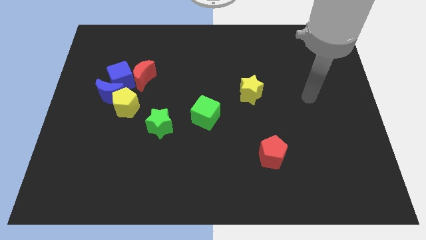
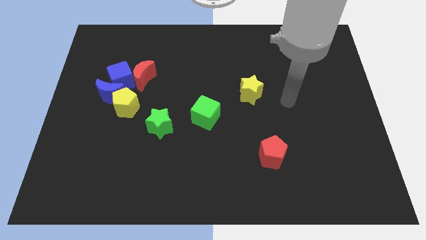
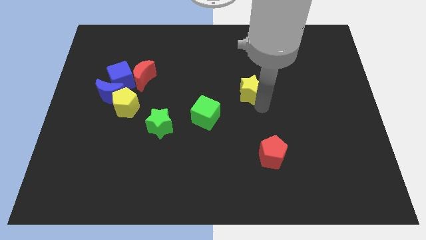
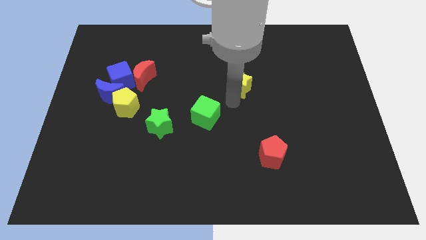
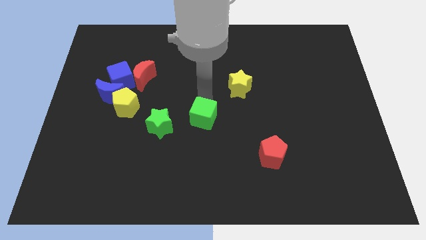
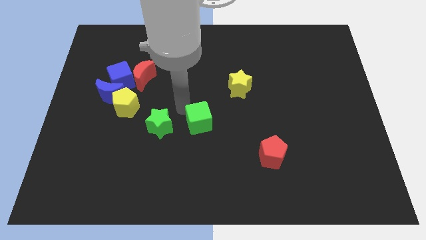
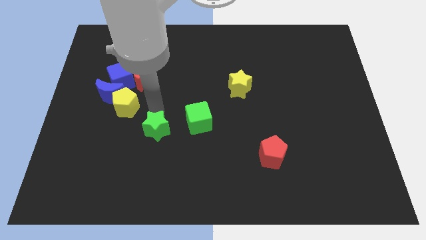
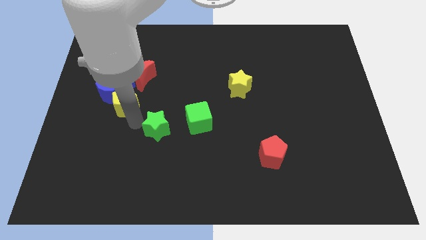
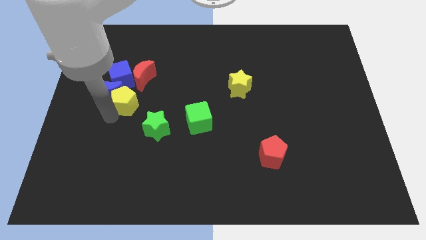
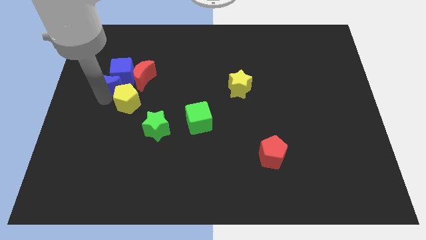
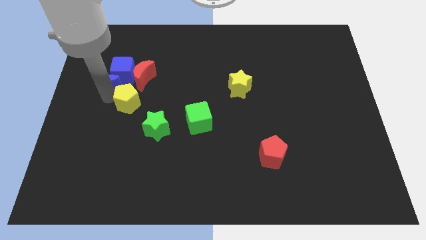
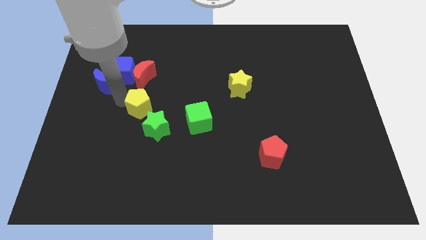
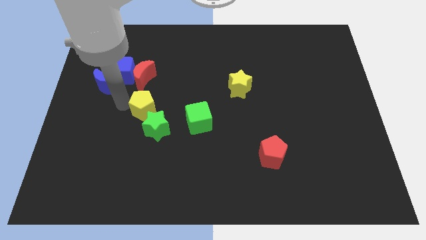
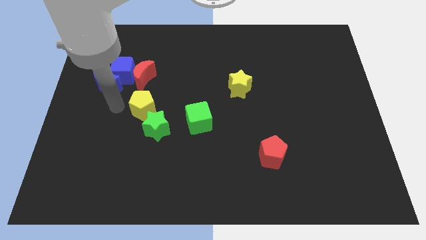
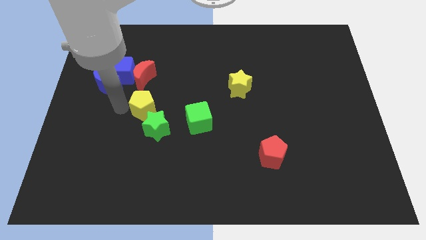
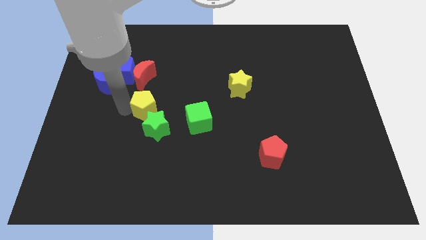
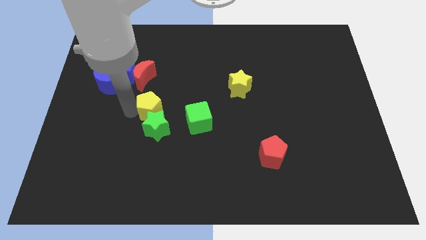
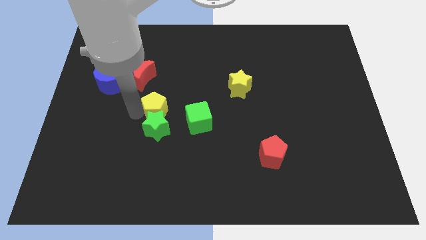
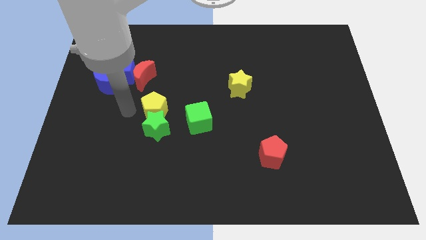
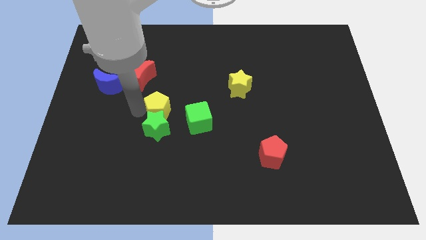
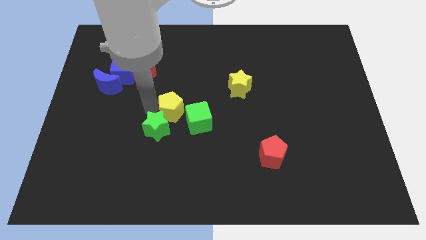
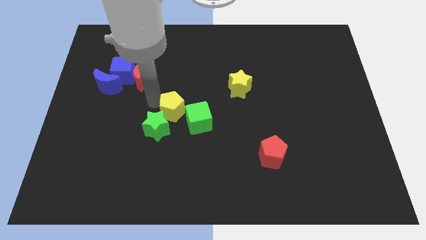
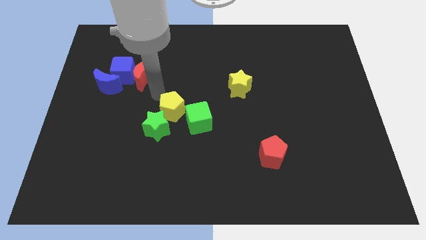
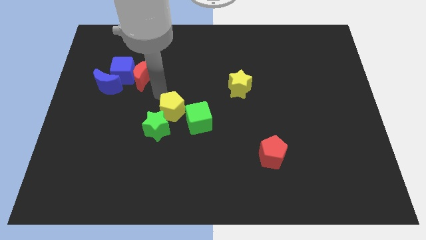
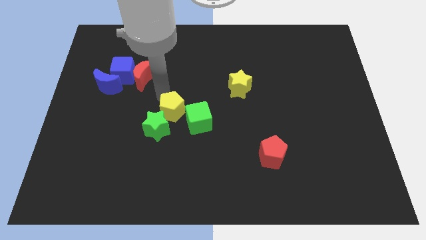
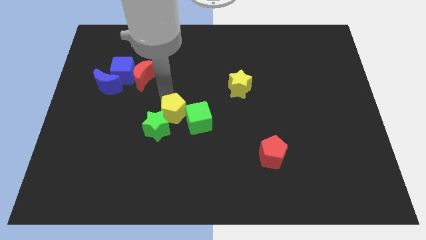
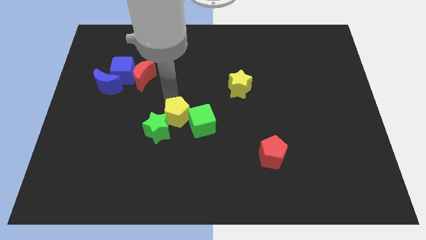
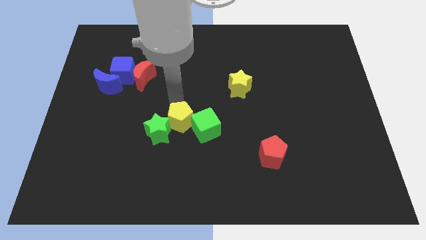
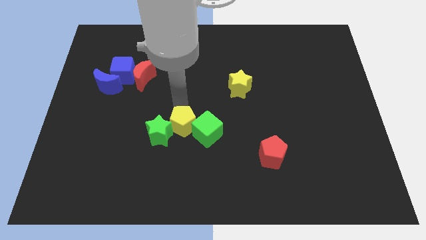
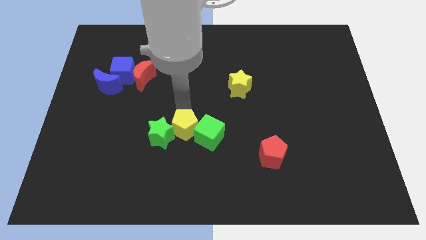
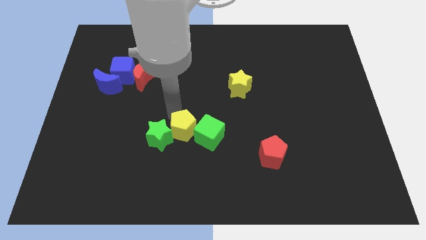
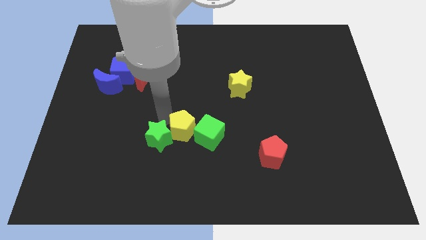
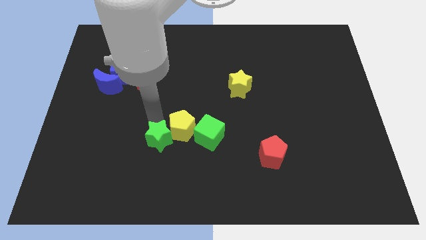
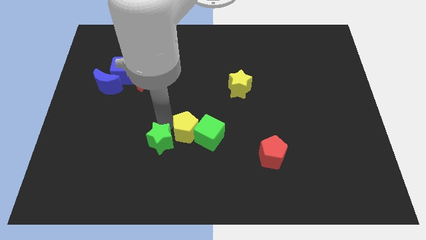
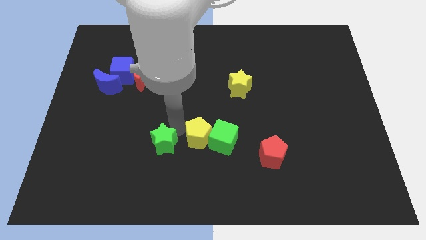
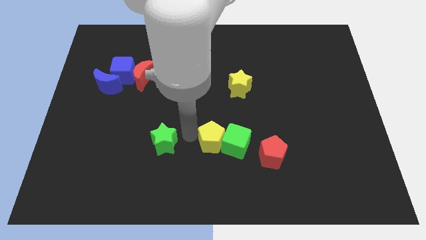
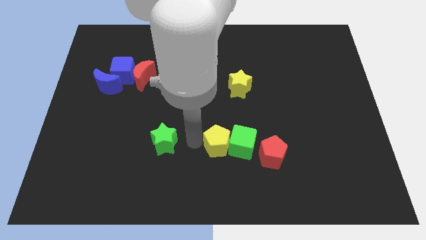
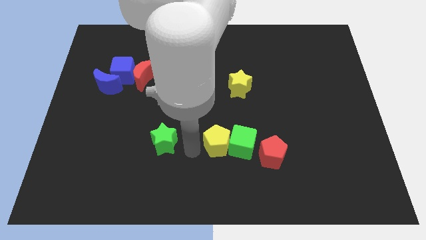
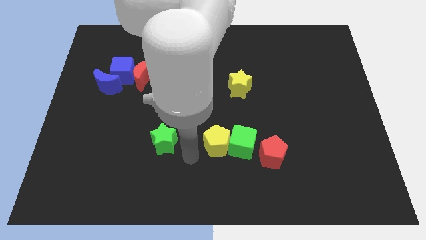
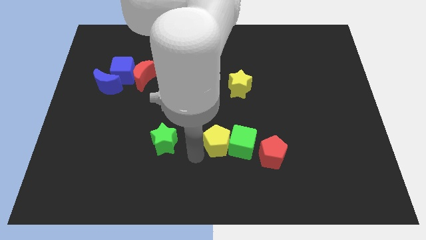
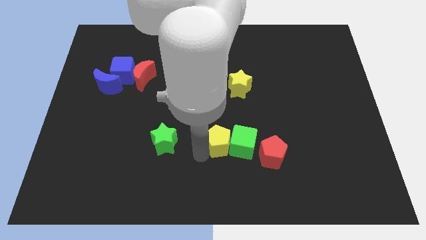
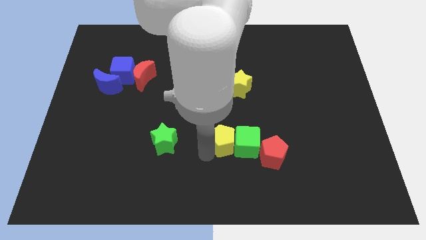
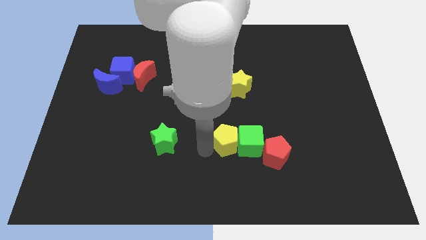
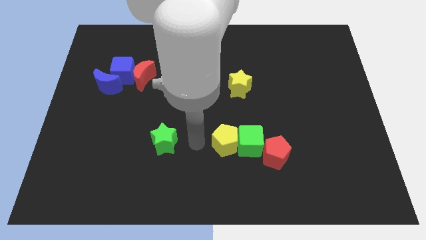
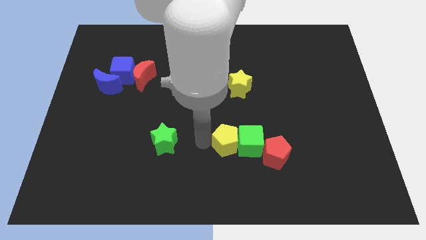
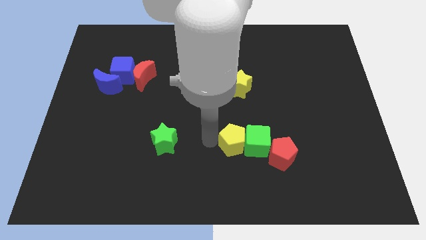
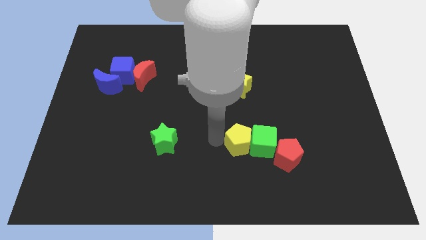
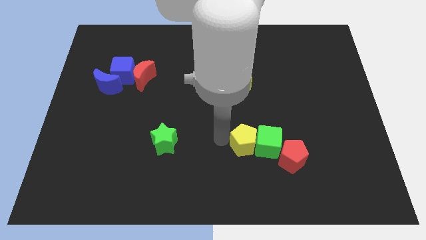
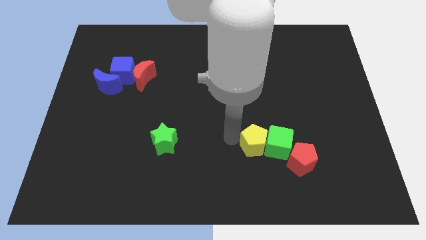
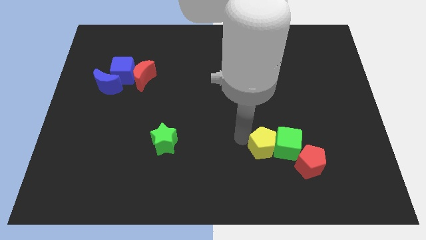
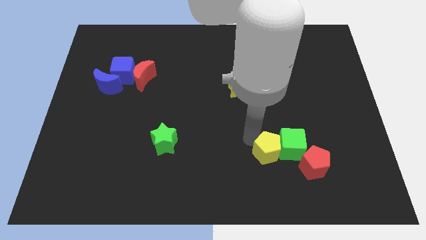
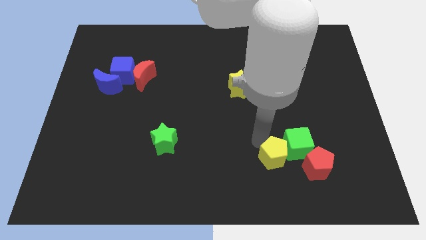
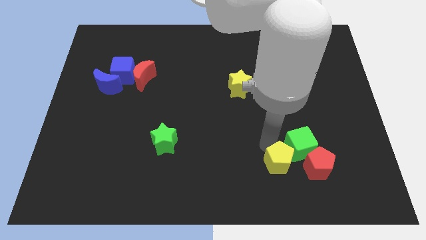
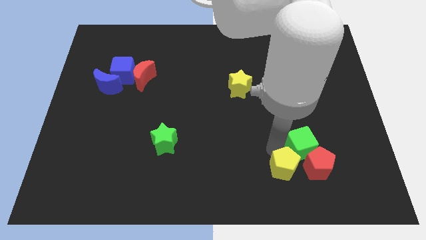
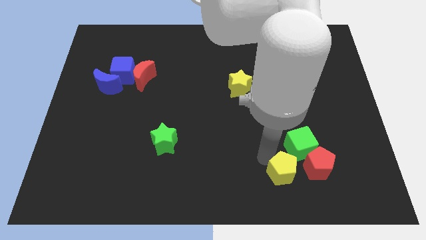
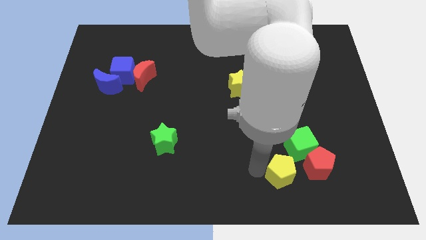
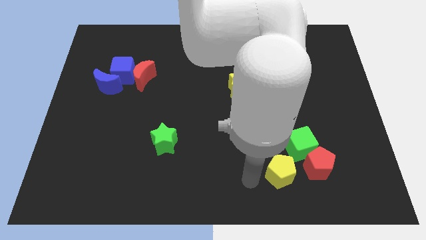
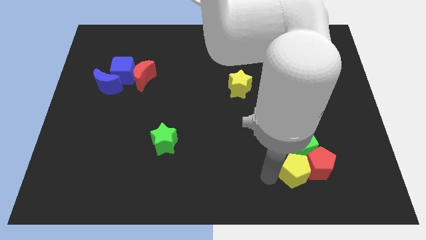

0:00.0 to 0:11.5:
put the yellow pentagon towards the red pentagon
